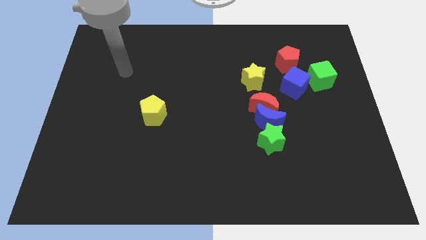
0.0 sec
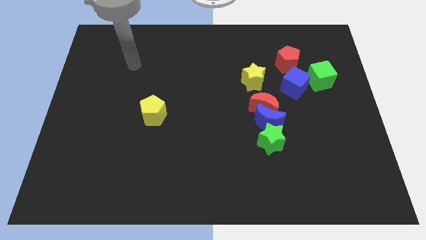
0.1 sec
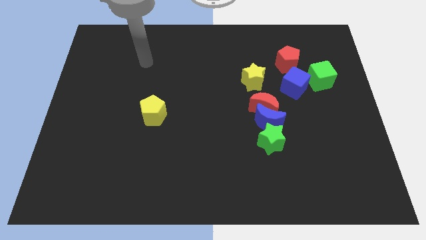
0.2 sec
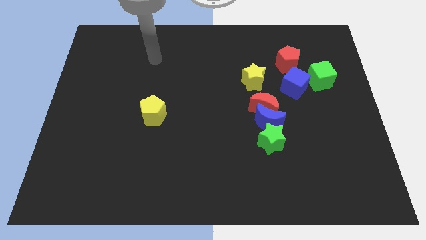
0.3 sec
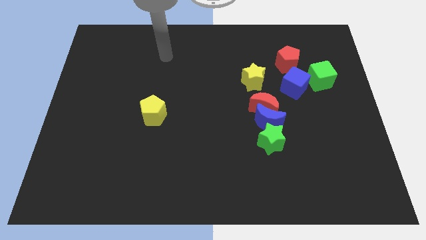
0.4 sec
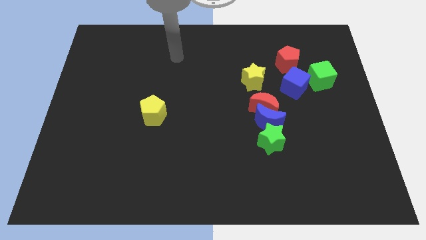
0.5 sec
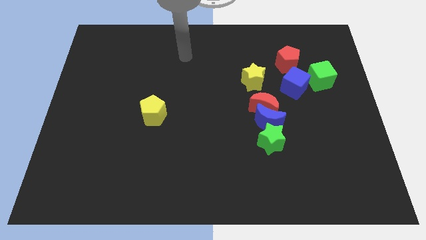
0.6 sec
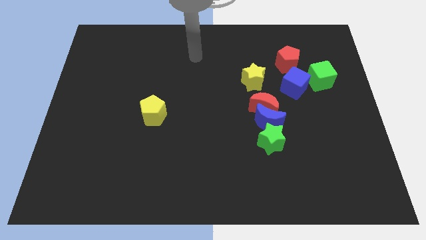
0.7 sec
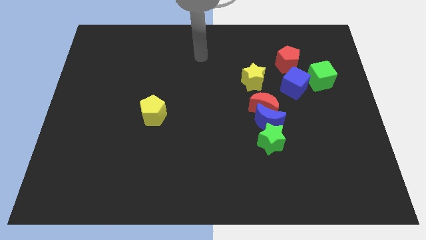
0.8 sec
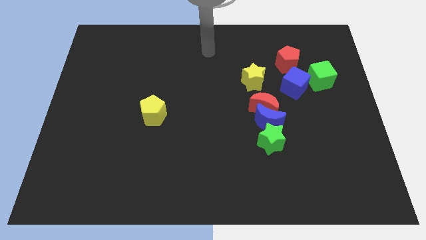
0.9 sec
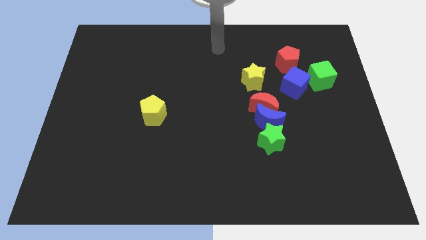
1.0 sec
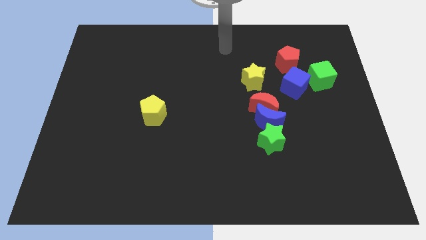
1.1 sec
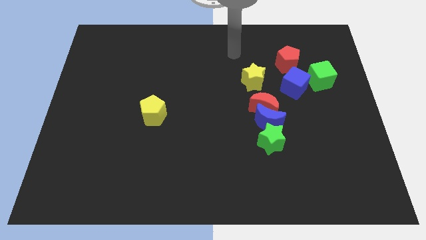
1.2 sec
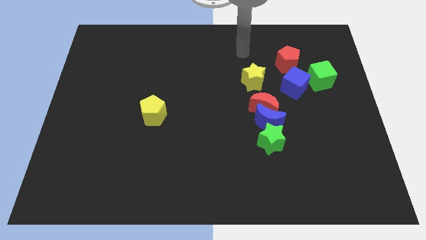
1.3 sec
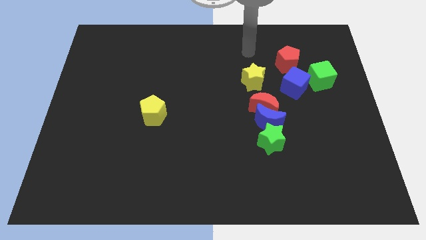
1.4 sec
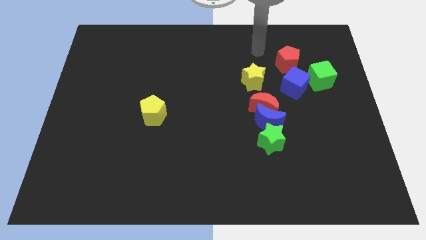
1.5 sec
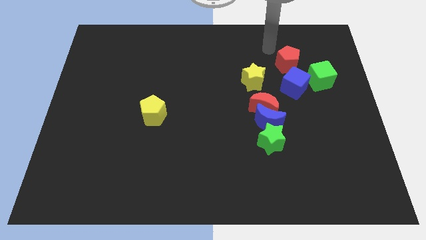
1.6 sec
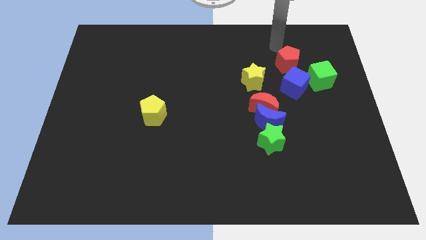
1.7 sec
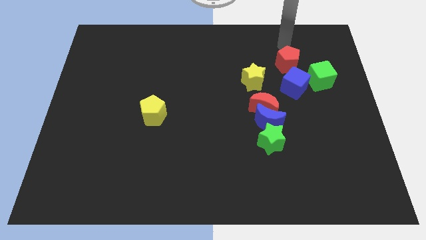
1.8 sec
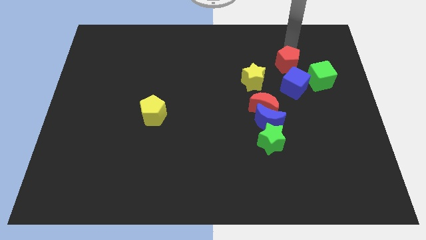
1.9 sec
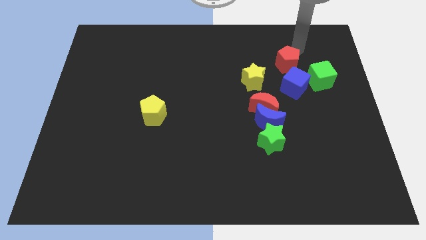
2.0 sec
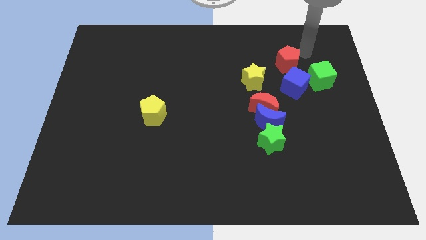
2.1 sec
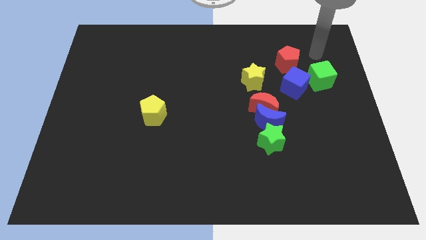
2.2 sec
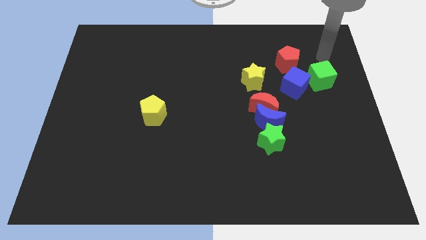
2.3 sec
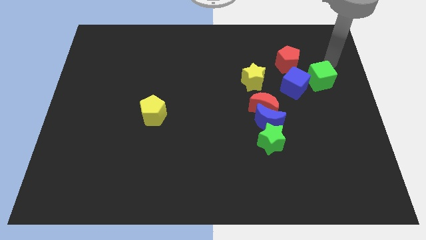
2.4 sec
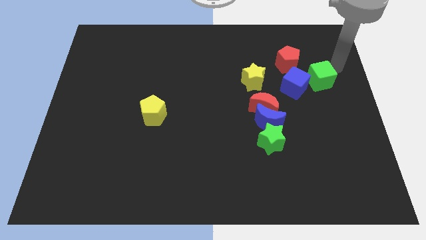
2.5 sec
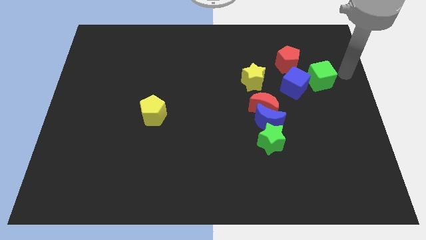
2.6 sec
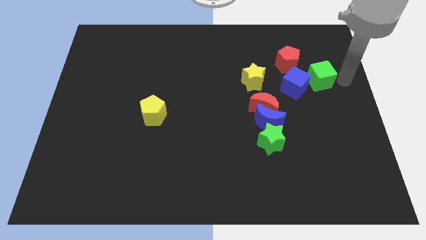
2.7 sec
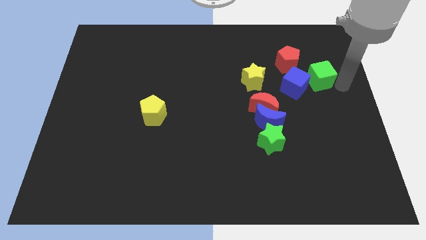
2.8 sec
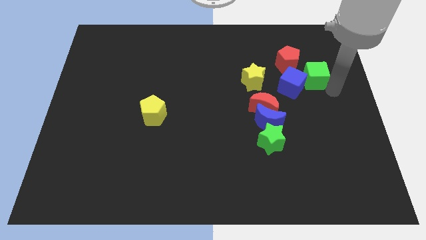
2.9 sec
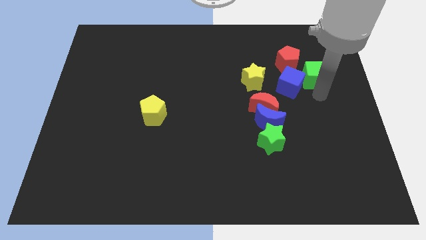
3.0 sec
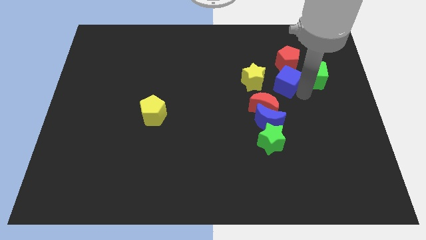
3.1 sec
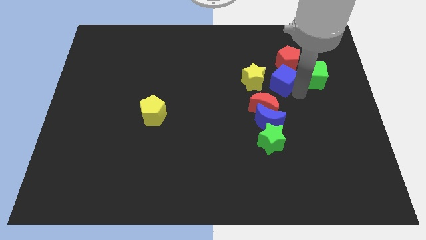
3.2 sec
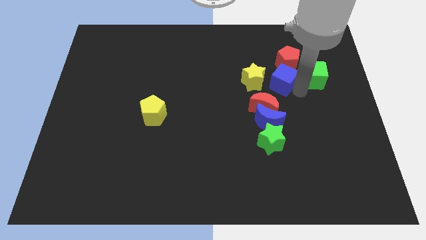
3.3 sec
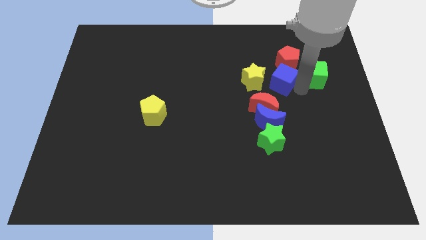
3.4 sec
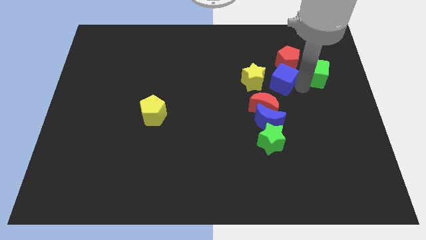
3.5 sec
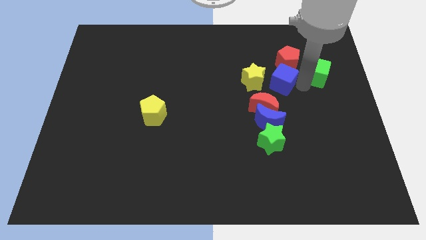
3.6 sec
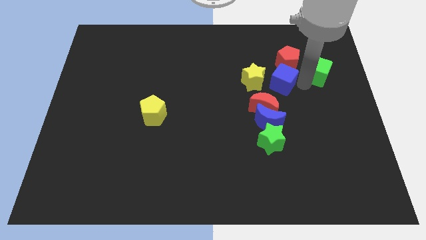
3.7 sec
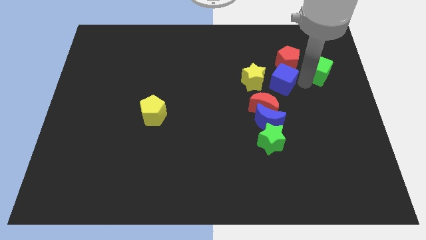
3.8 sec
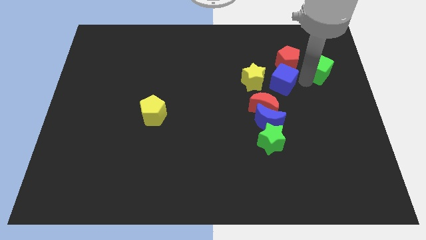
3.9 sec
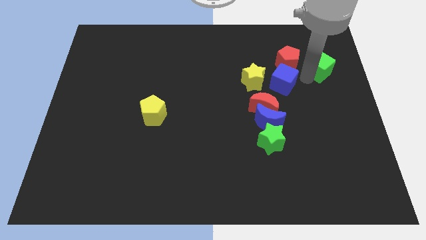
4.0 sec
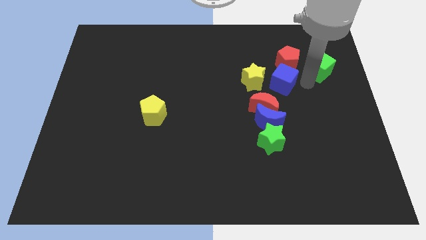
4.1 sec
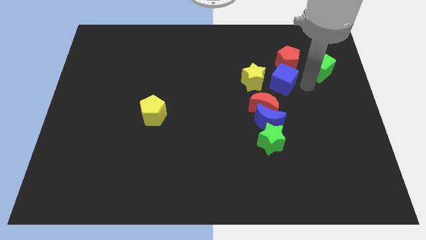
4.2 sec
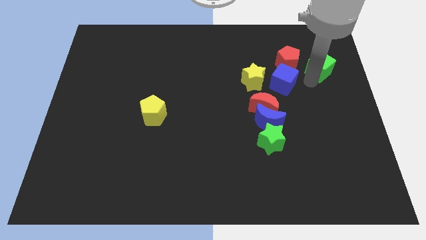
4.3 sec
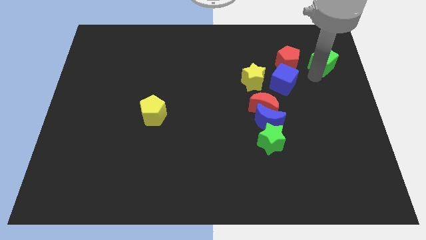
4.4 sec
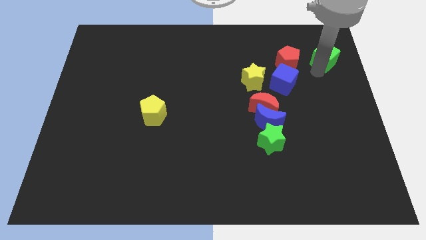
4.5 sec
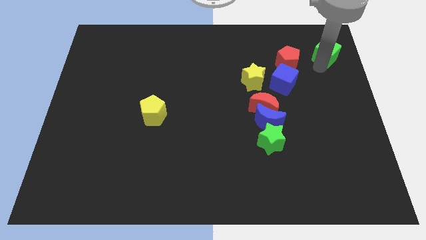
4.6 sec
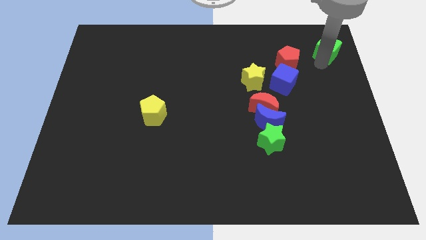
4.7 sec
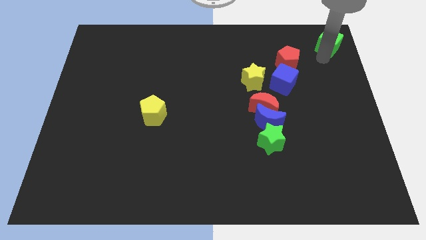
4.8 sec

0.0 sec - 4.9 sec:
put the green cube to the upper right corner

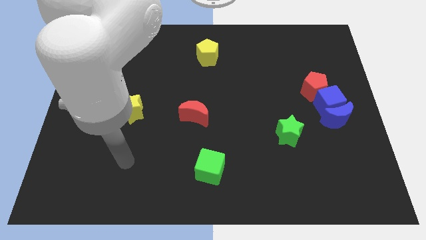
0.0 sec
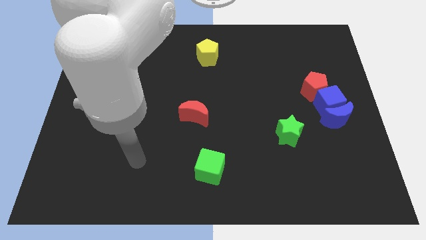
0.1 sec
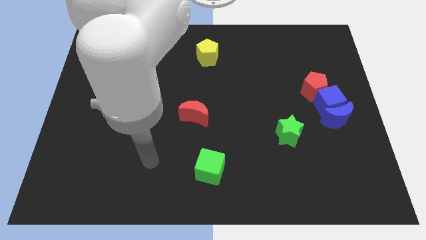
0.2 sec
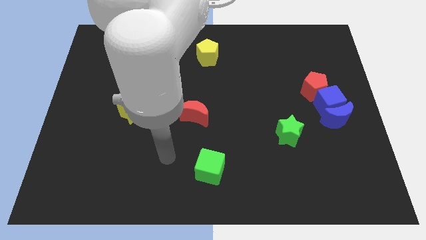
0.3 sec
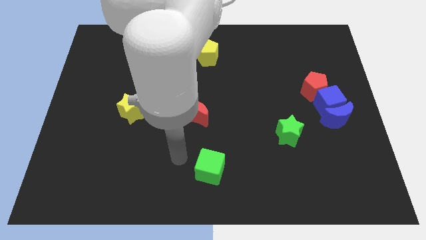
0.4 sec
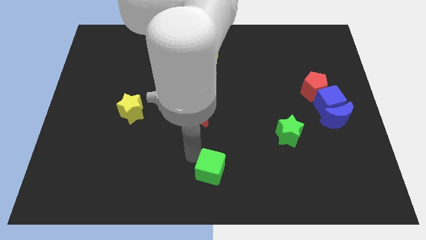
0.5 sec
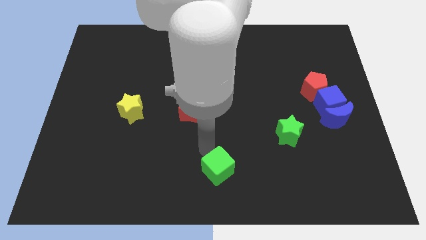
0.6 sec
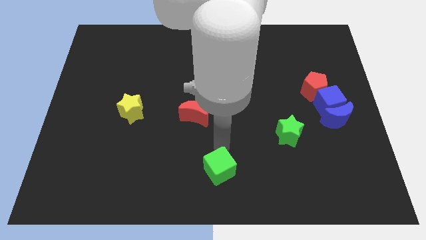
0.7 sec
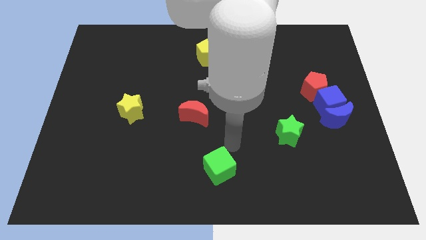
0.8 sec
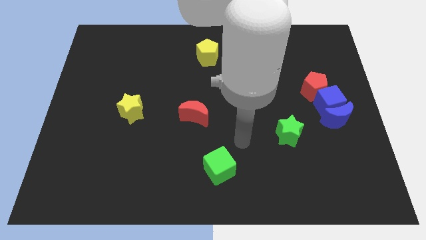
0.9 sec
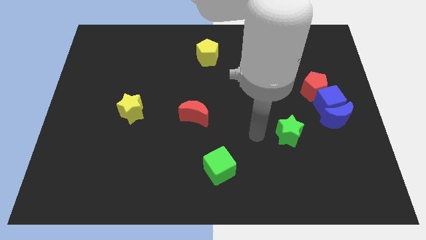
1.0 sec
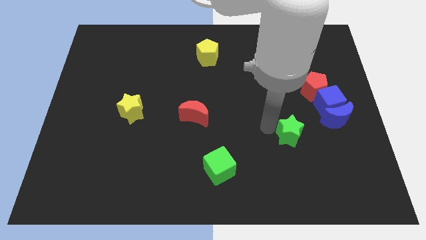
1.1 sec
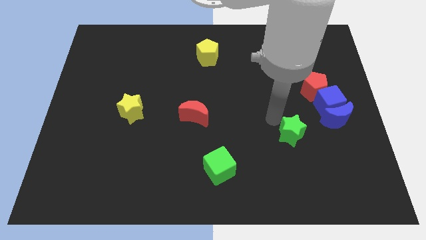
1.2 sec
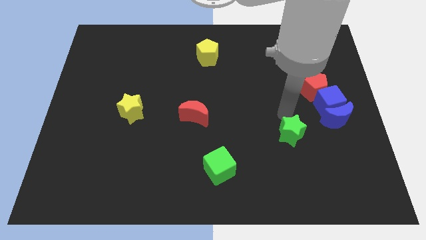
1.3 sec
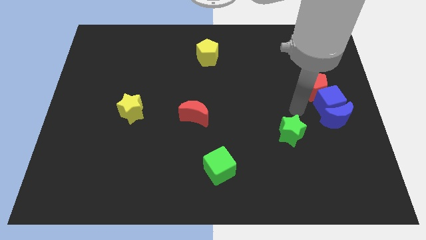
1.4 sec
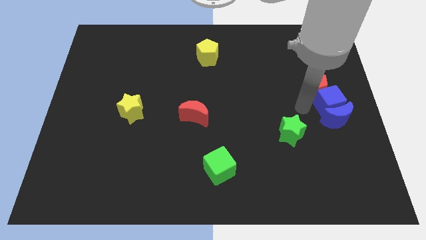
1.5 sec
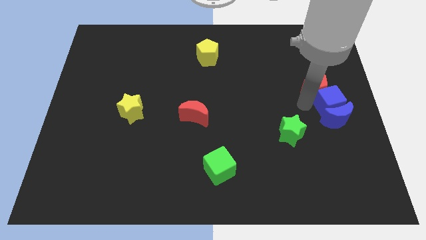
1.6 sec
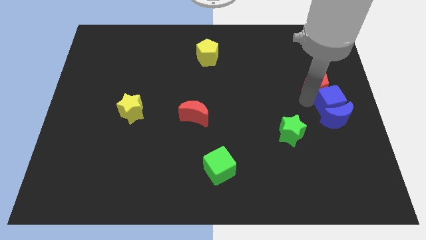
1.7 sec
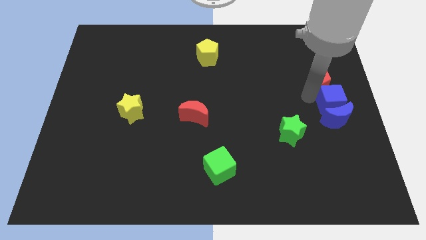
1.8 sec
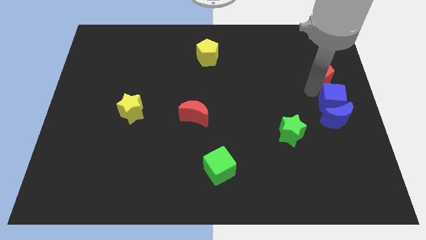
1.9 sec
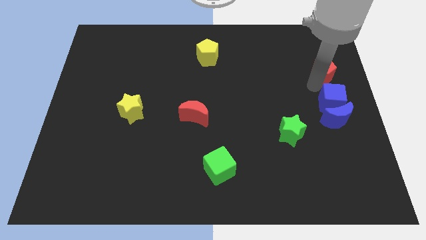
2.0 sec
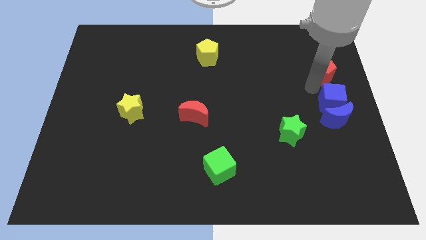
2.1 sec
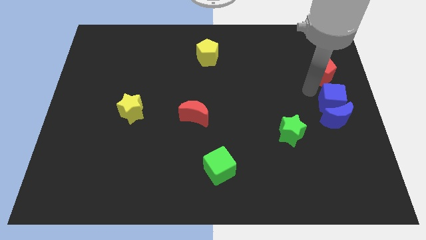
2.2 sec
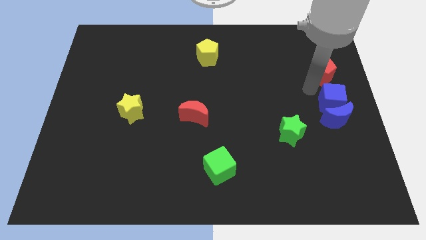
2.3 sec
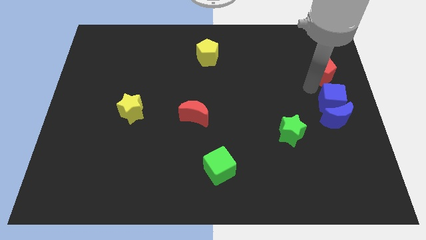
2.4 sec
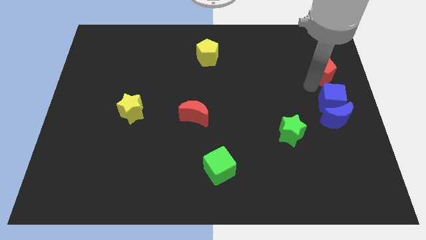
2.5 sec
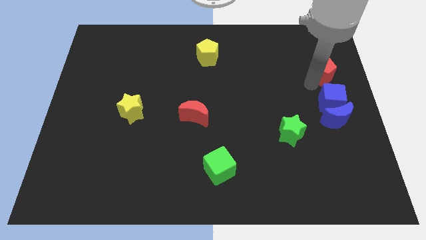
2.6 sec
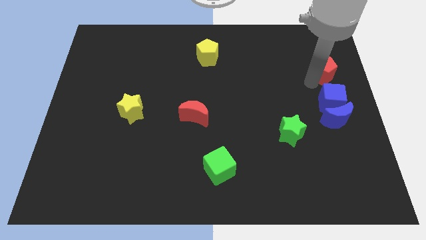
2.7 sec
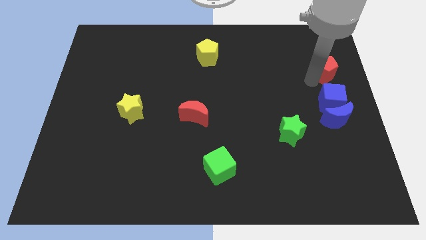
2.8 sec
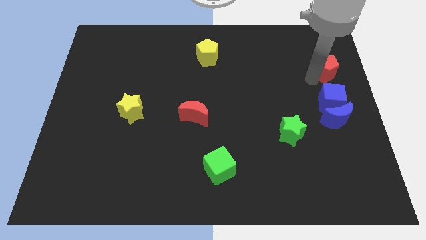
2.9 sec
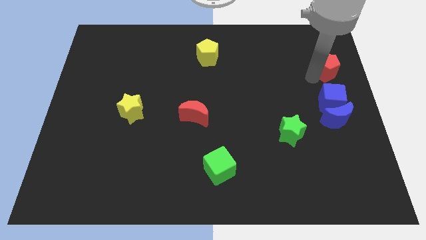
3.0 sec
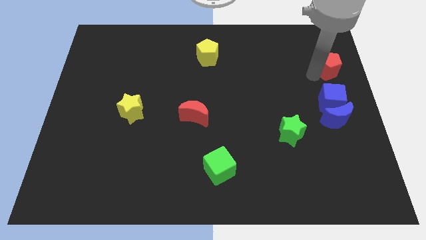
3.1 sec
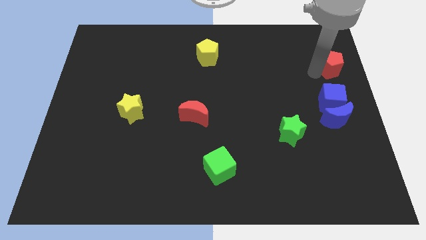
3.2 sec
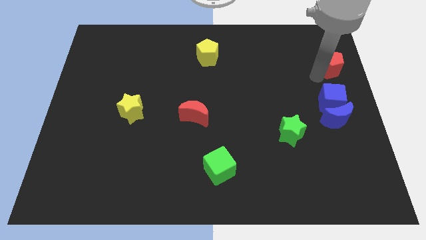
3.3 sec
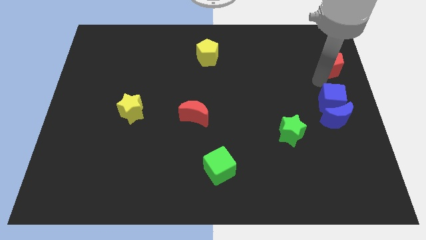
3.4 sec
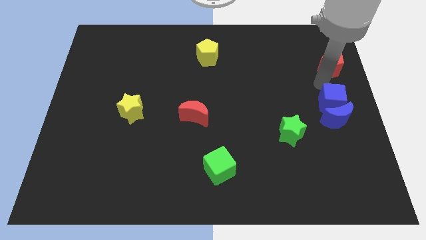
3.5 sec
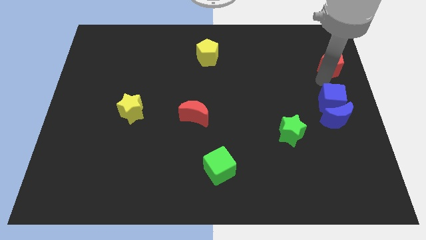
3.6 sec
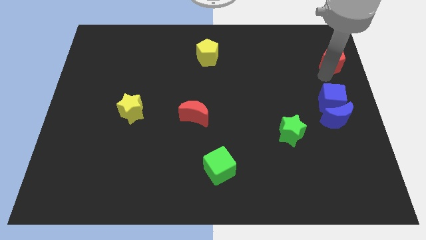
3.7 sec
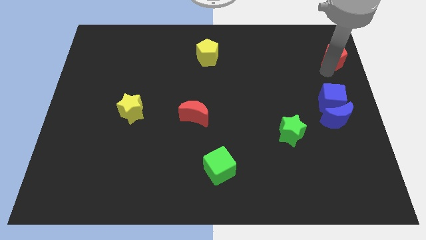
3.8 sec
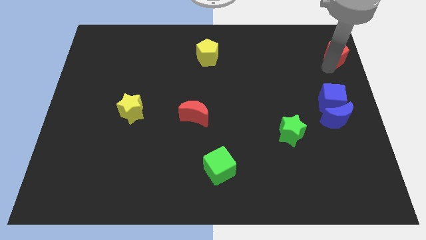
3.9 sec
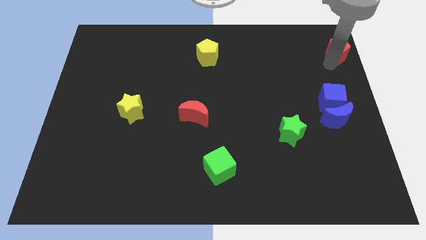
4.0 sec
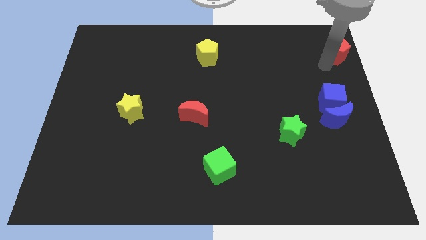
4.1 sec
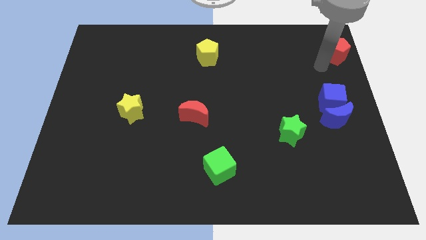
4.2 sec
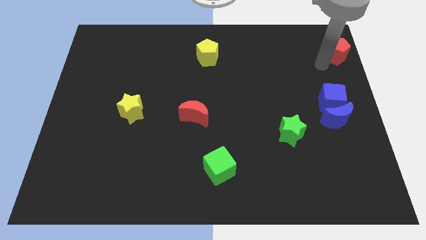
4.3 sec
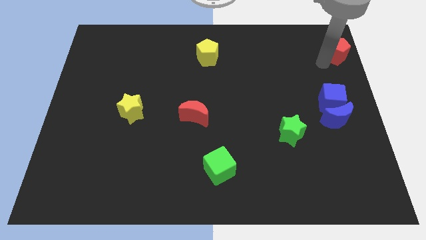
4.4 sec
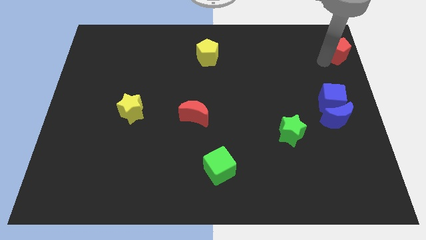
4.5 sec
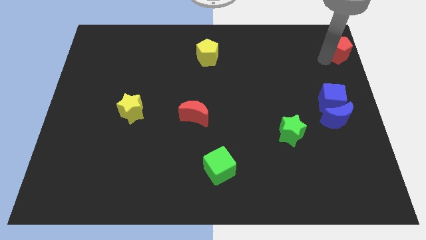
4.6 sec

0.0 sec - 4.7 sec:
put the red pentagon to the top right of the board
